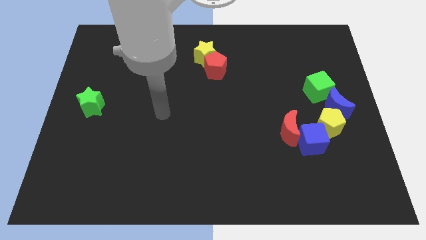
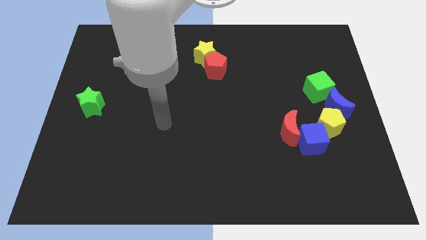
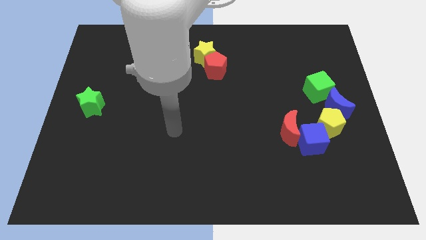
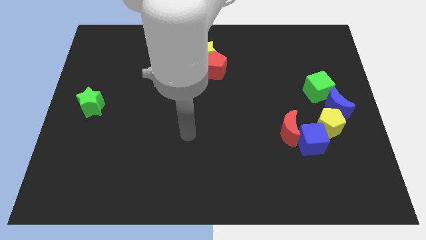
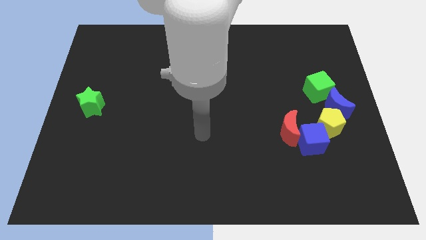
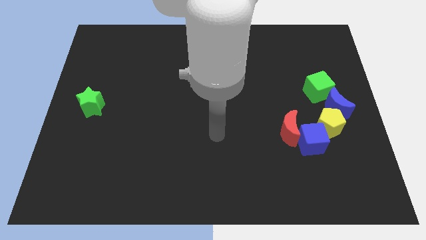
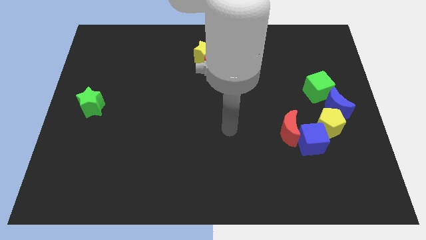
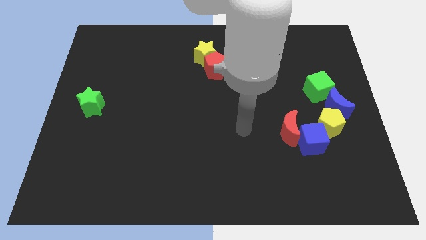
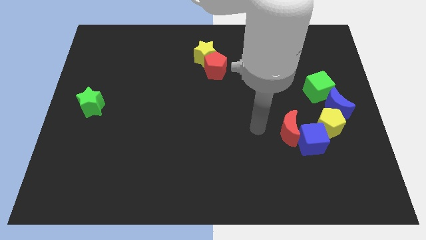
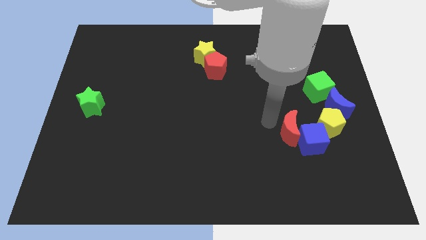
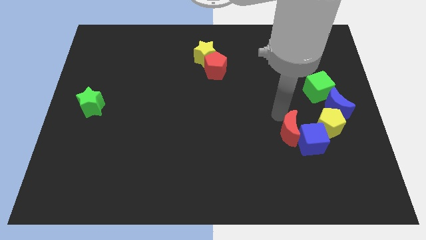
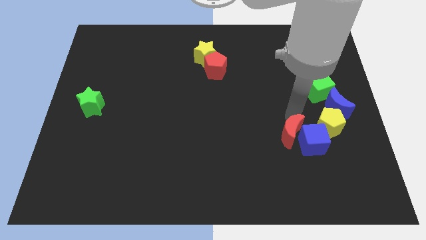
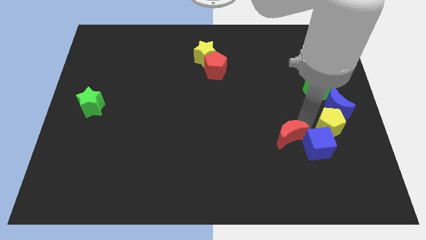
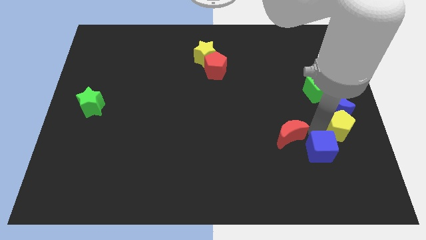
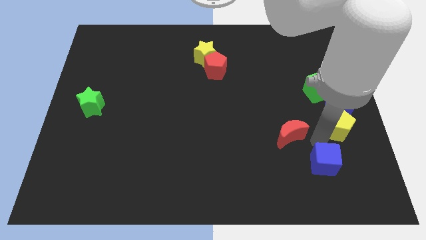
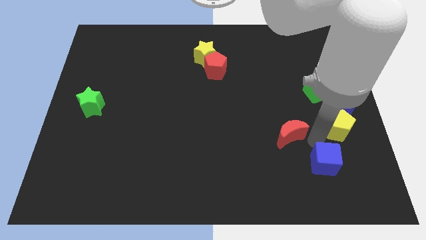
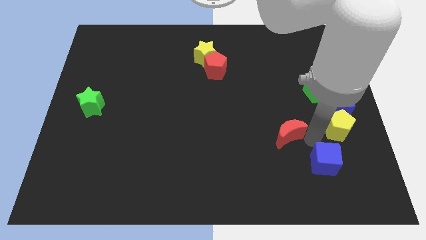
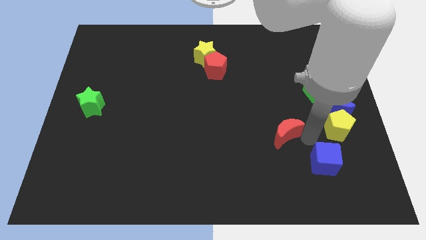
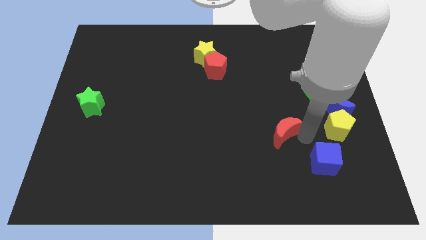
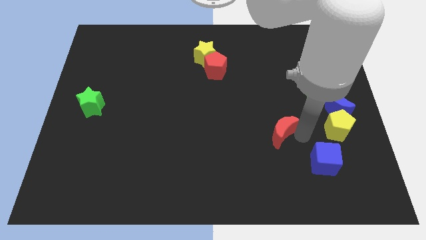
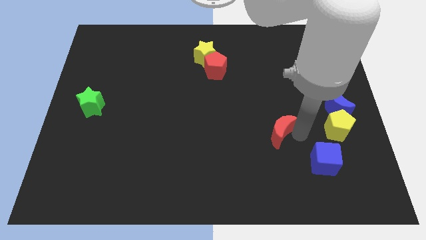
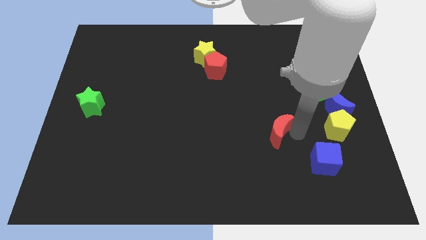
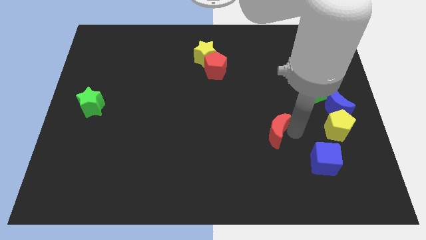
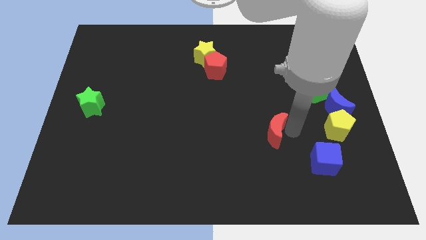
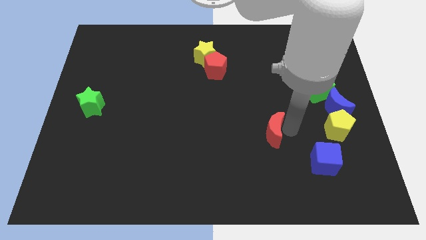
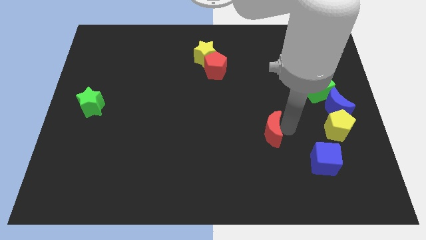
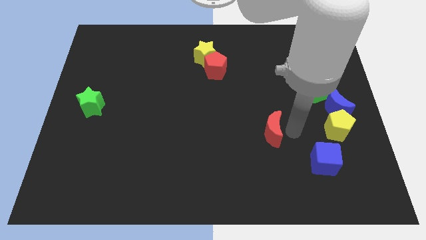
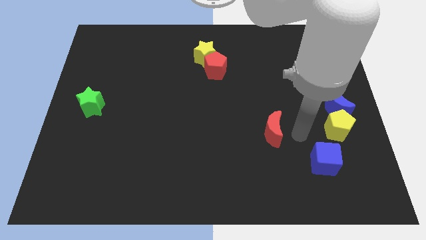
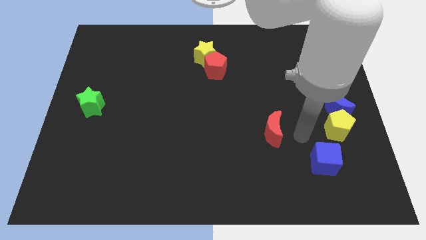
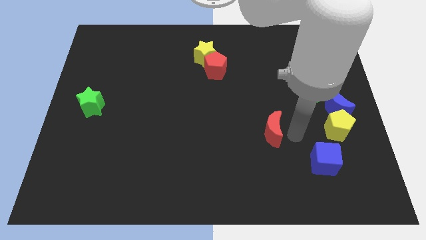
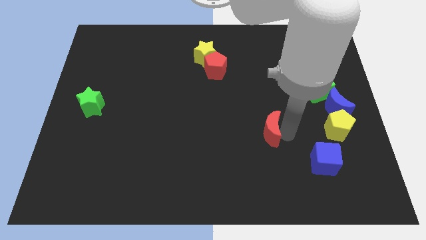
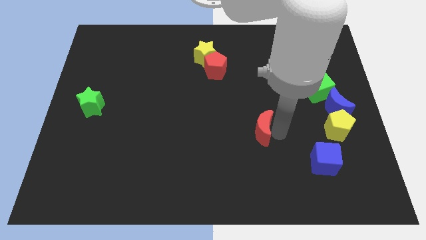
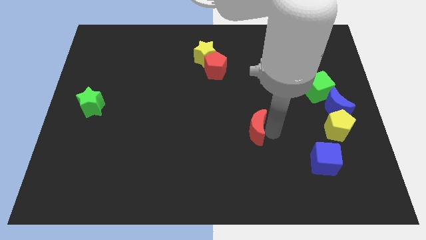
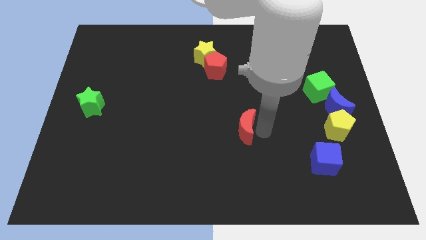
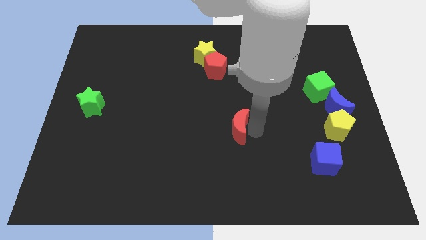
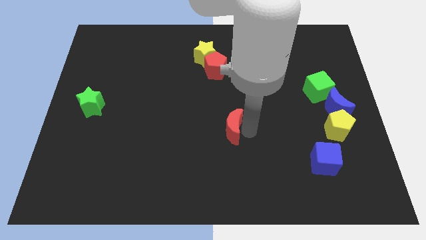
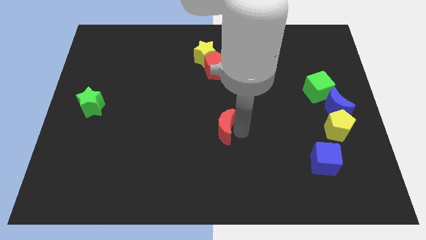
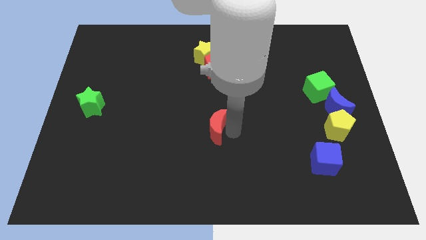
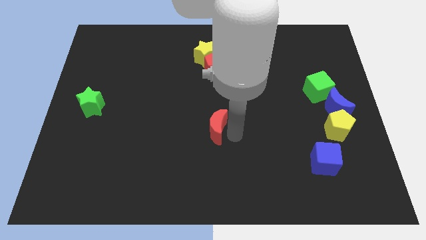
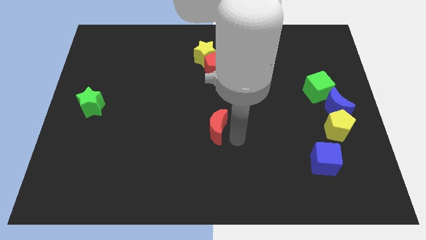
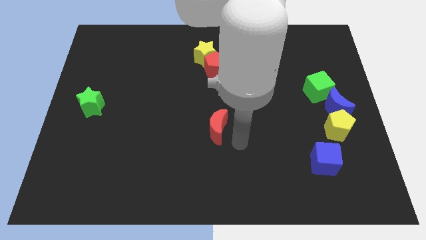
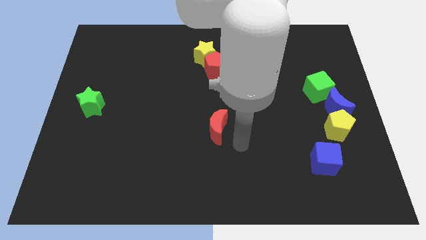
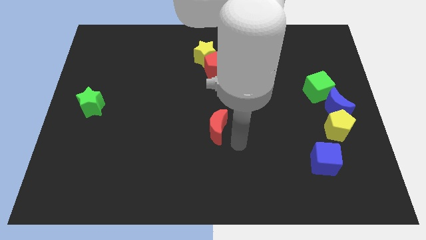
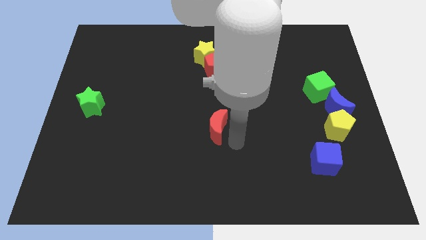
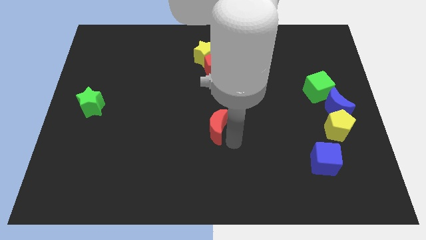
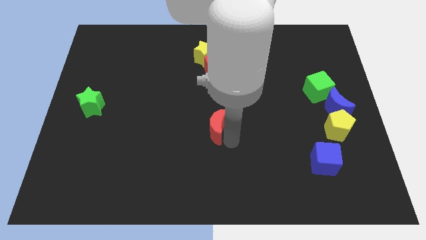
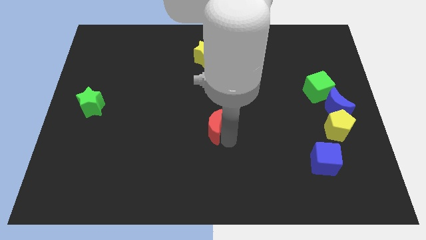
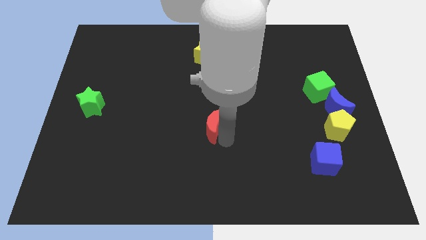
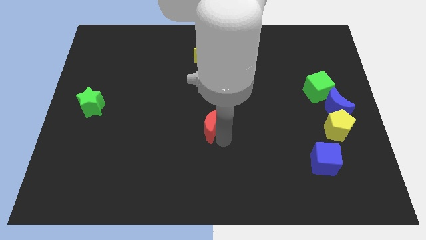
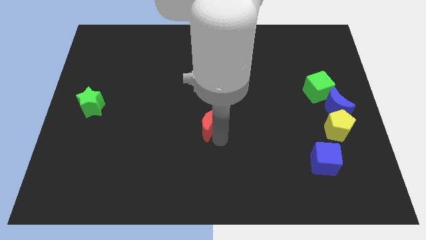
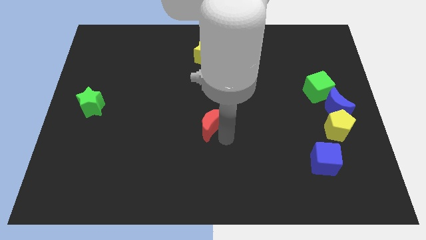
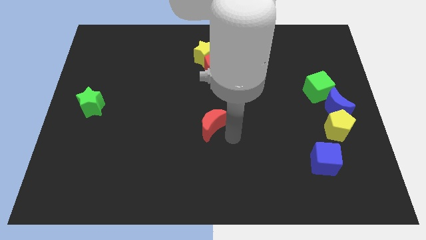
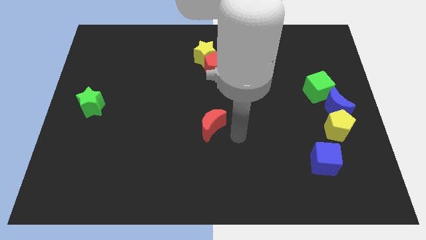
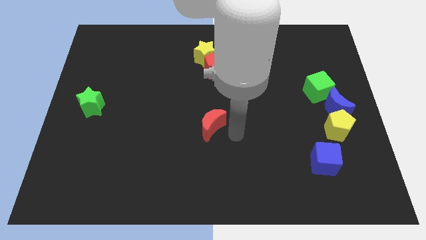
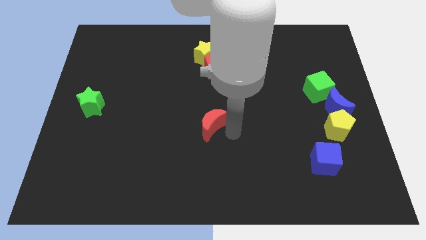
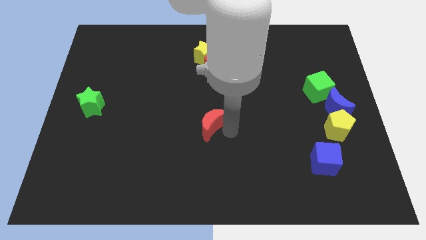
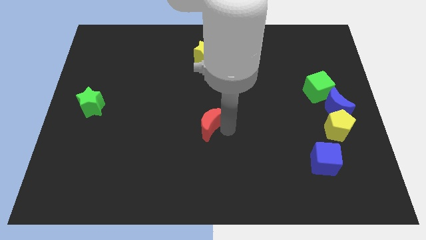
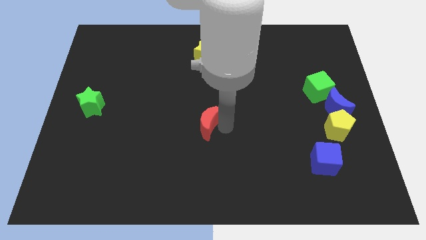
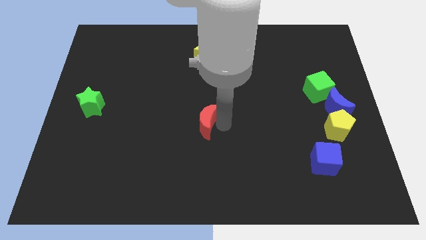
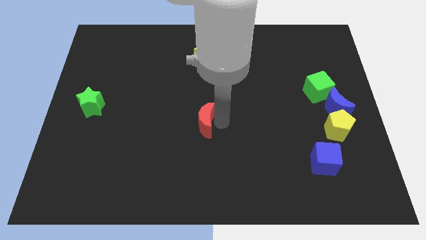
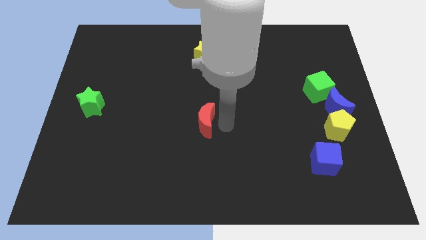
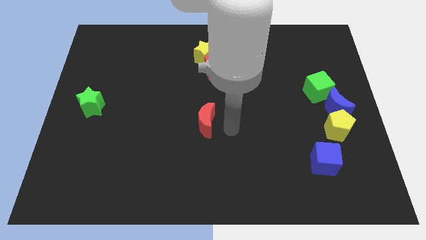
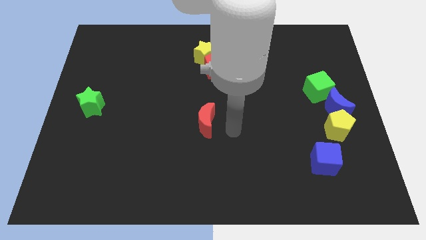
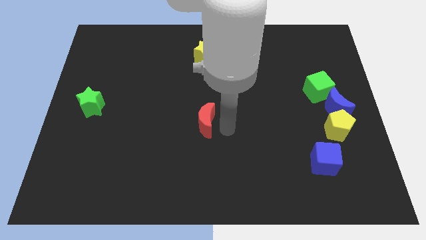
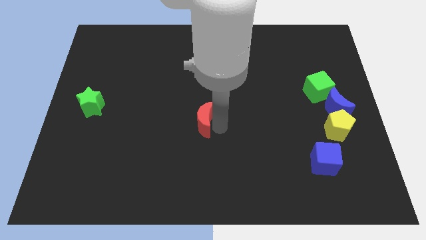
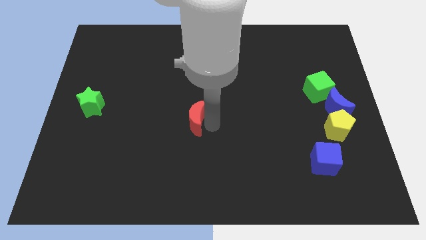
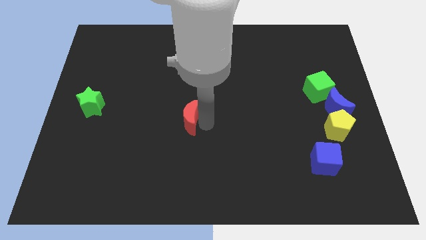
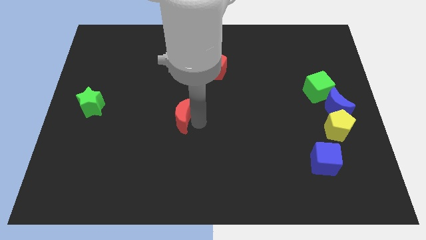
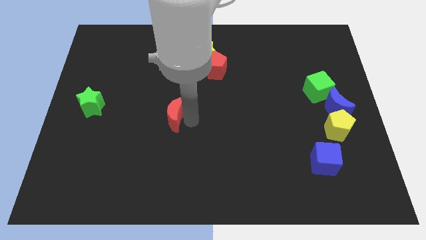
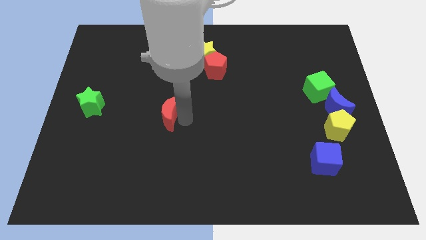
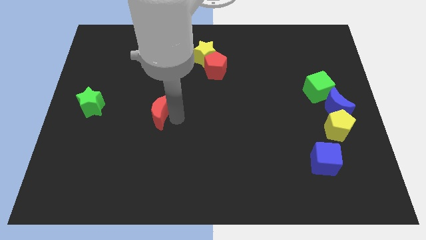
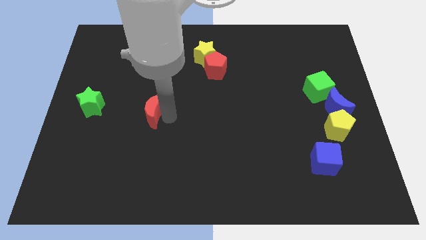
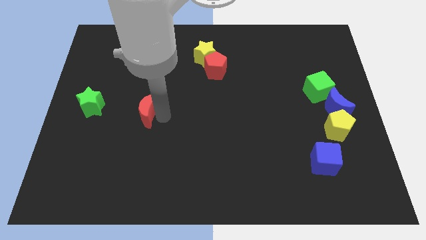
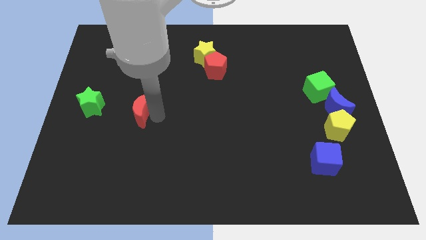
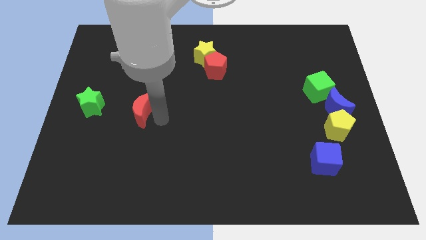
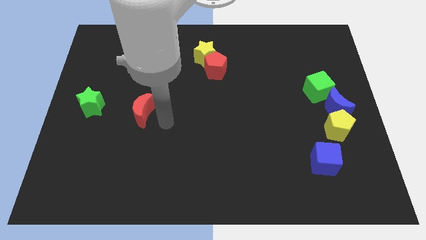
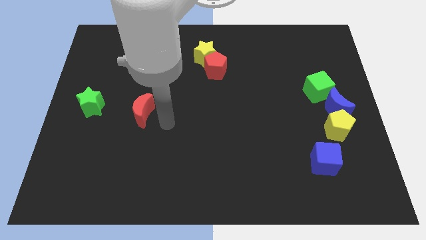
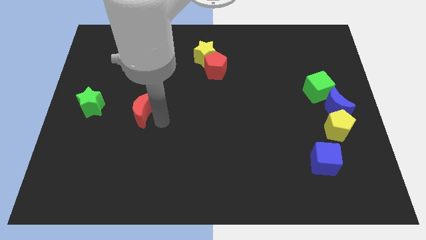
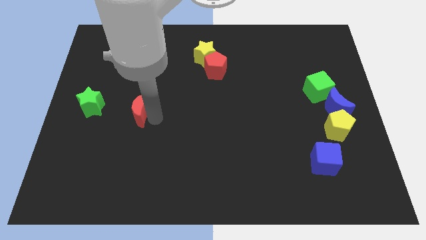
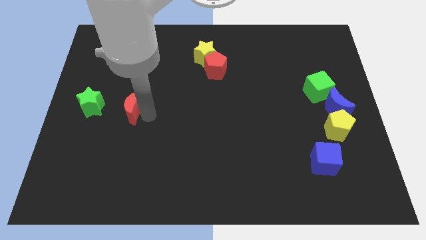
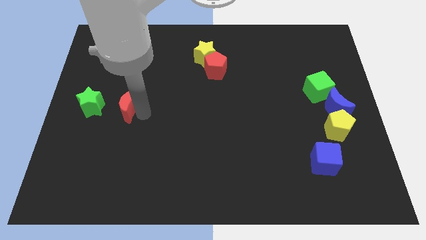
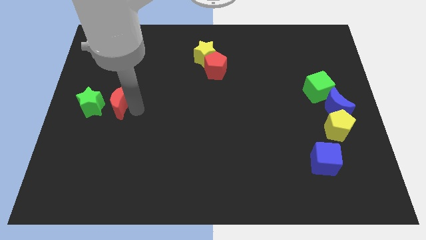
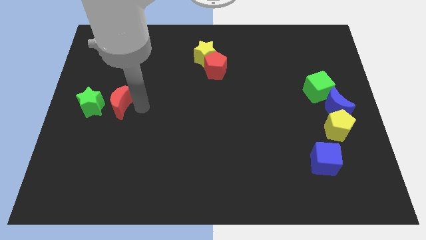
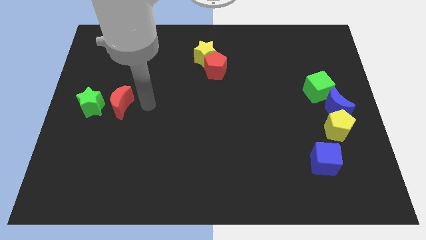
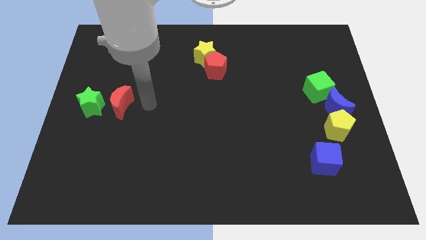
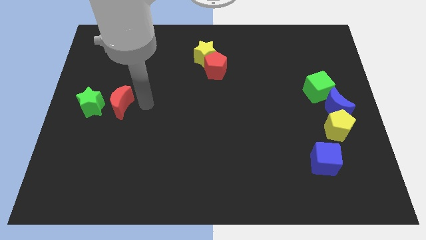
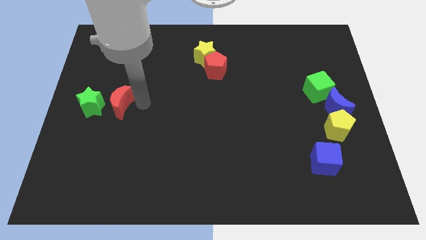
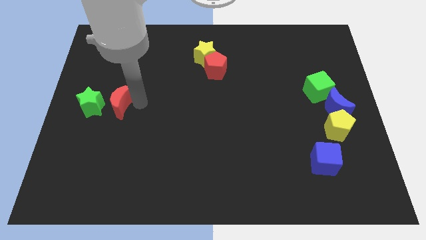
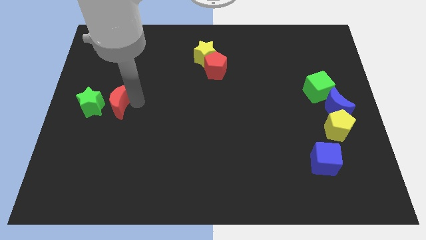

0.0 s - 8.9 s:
put the red moon close to the green star
